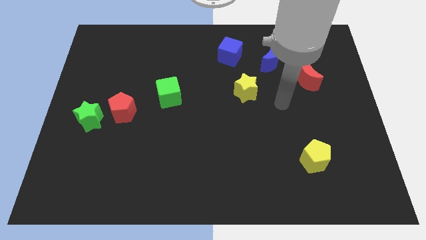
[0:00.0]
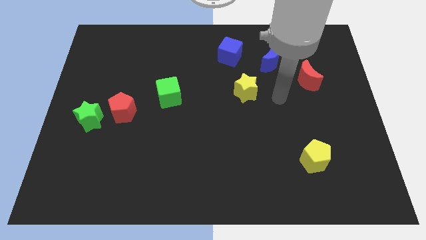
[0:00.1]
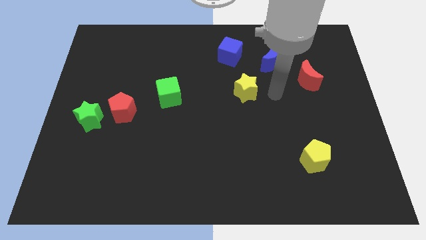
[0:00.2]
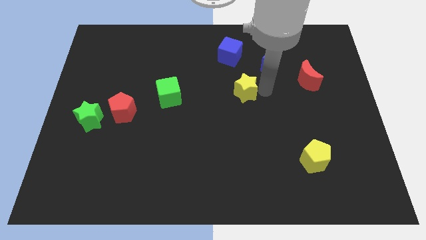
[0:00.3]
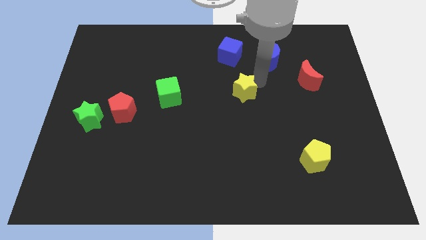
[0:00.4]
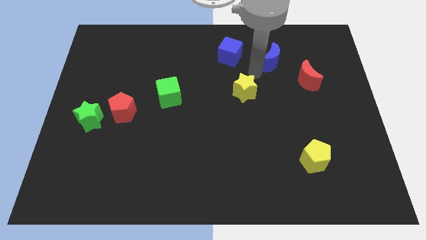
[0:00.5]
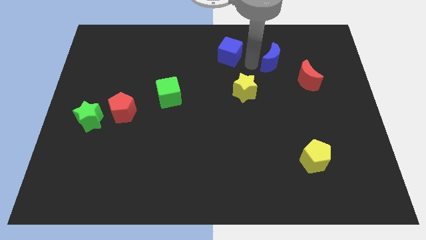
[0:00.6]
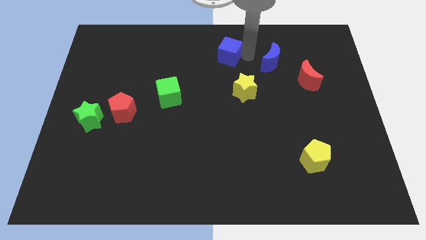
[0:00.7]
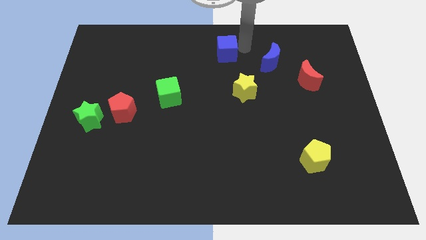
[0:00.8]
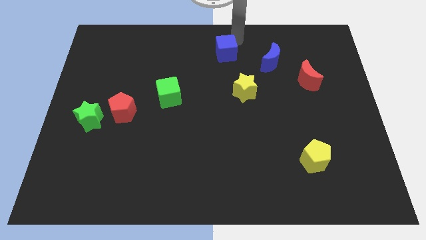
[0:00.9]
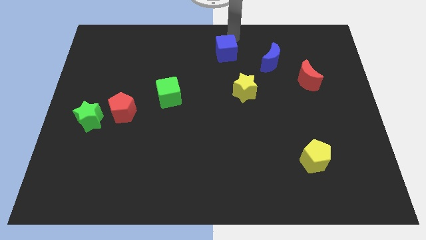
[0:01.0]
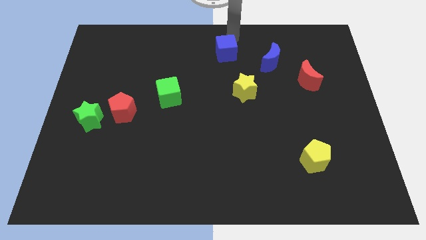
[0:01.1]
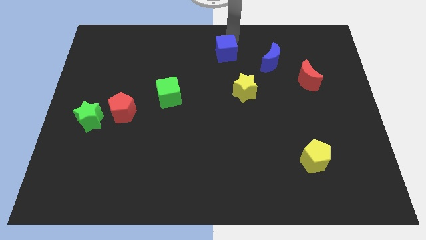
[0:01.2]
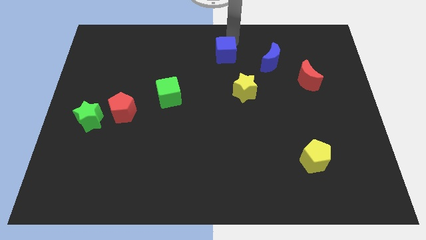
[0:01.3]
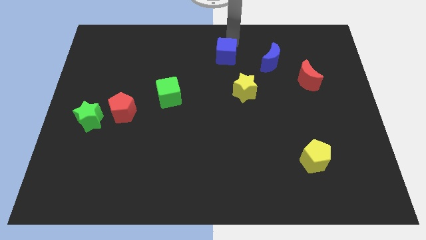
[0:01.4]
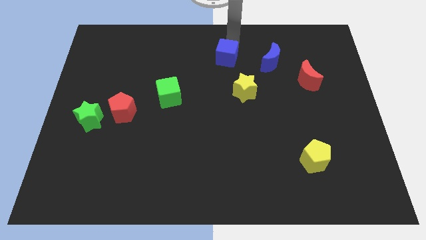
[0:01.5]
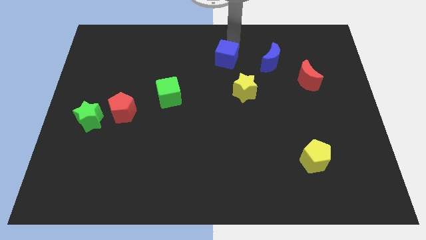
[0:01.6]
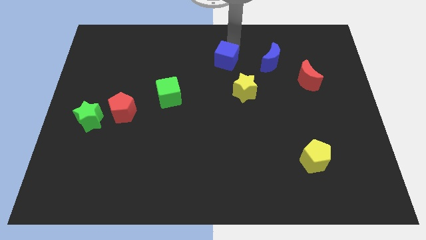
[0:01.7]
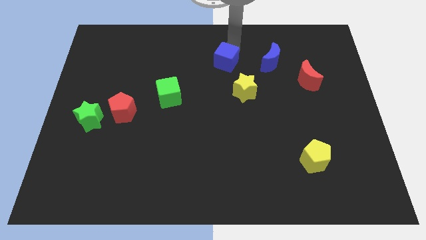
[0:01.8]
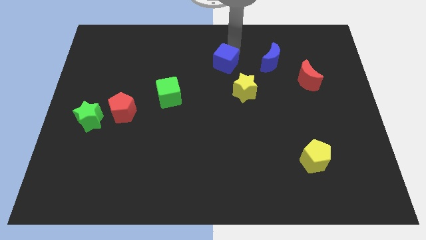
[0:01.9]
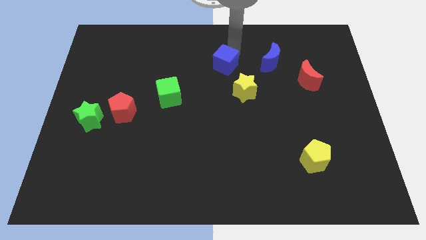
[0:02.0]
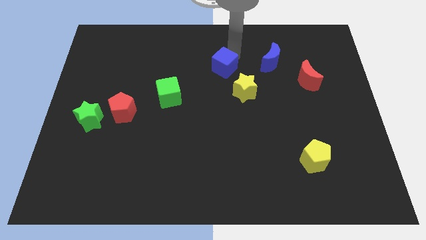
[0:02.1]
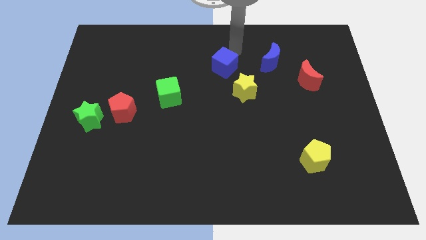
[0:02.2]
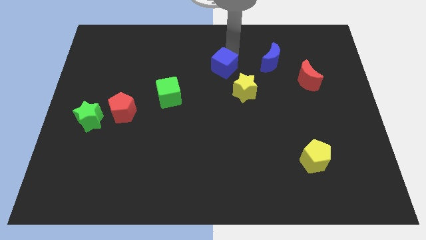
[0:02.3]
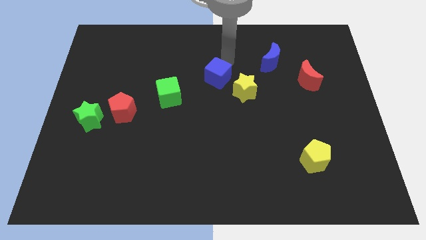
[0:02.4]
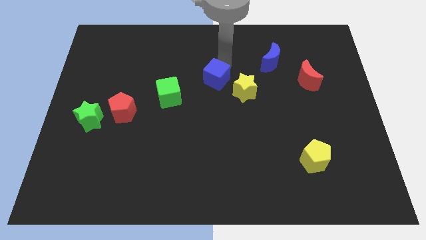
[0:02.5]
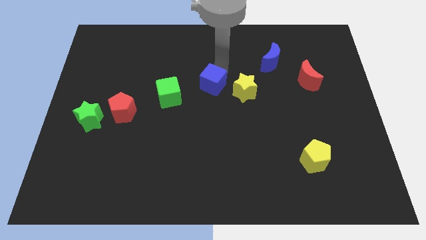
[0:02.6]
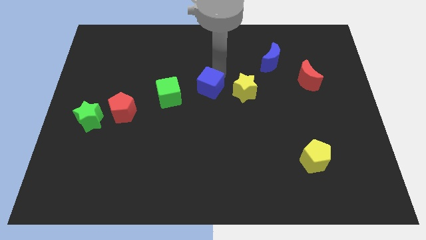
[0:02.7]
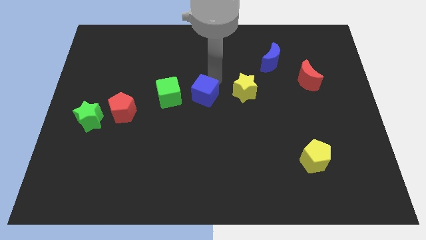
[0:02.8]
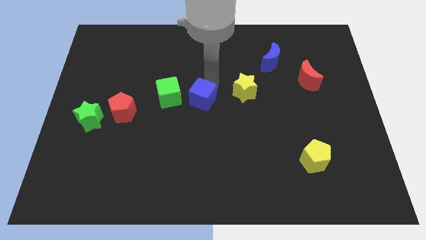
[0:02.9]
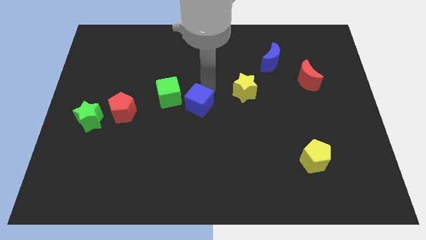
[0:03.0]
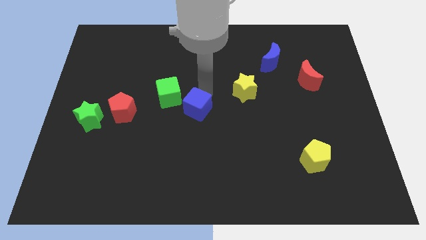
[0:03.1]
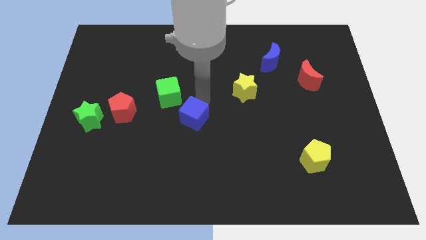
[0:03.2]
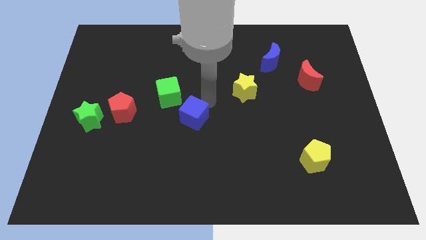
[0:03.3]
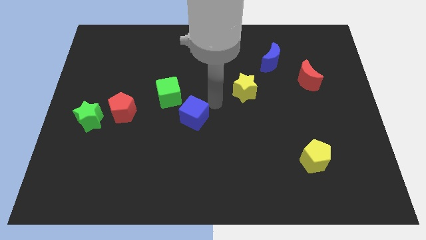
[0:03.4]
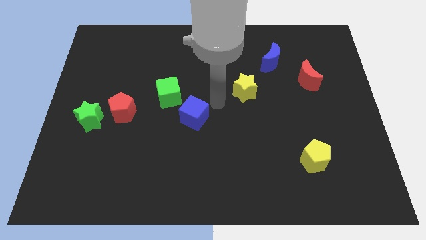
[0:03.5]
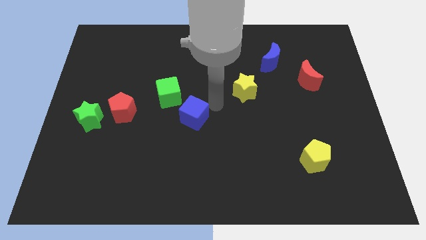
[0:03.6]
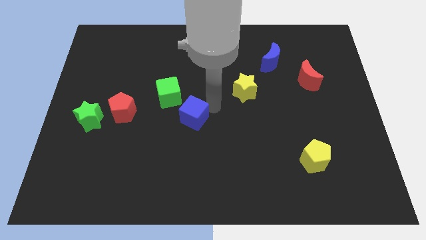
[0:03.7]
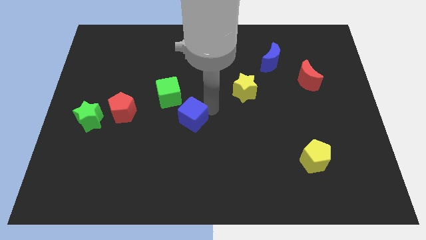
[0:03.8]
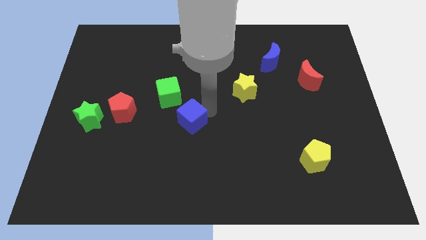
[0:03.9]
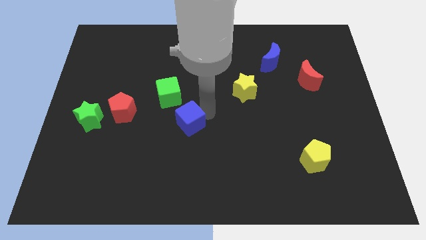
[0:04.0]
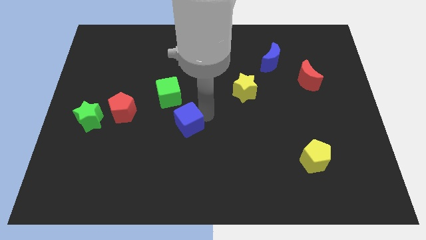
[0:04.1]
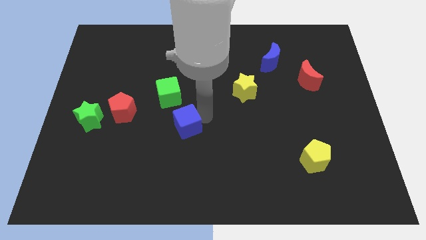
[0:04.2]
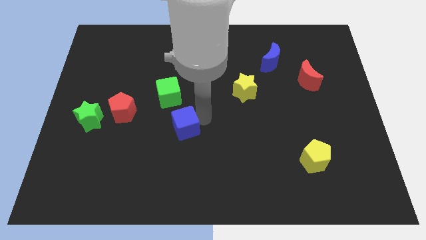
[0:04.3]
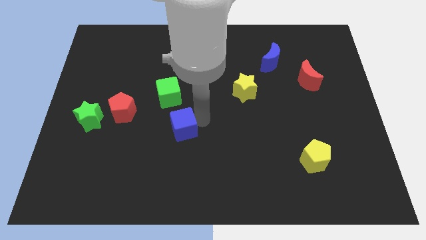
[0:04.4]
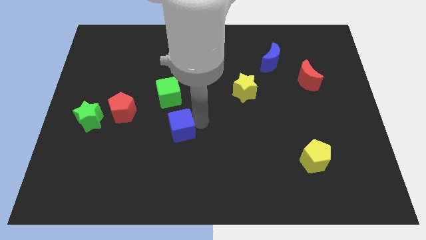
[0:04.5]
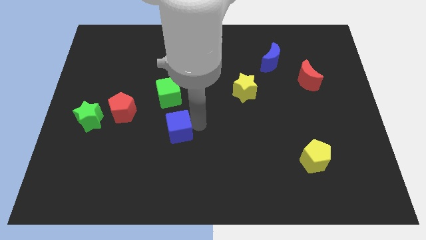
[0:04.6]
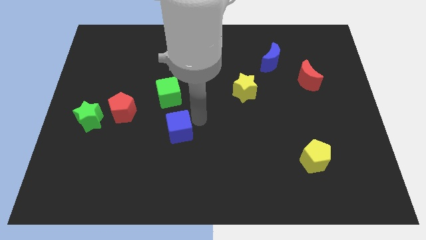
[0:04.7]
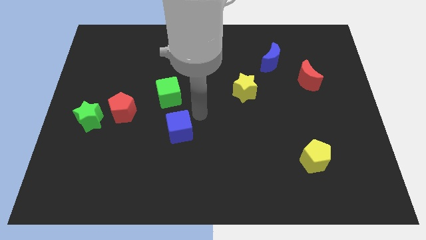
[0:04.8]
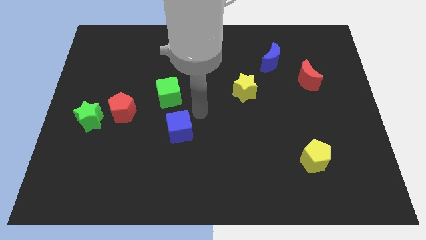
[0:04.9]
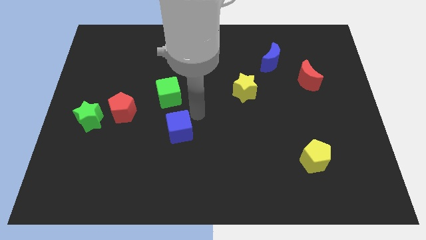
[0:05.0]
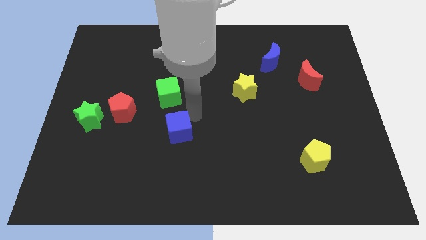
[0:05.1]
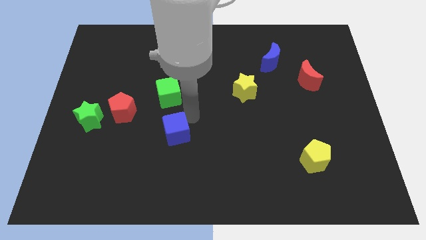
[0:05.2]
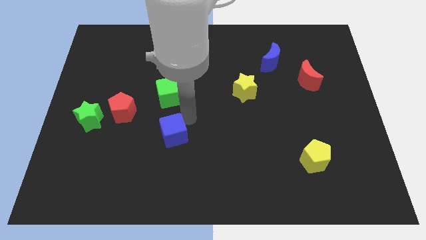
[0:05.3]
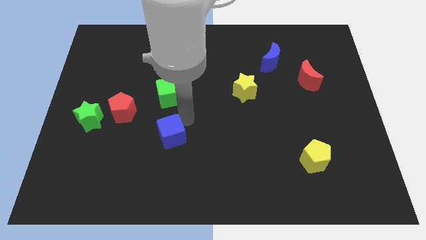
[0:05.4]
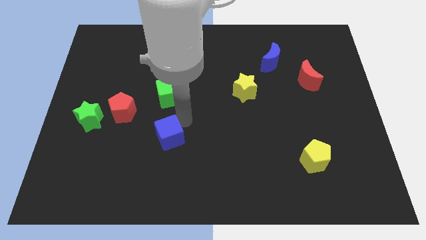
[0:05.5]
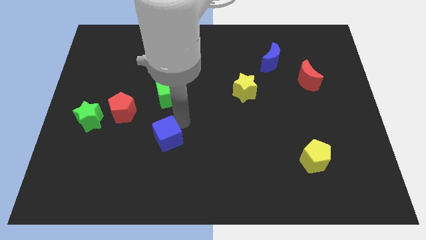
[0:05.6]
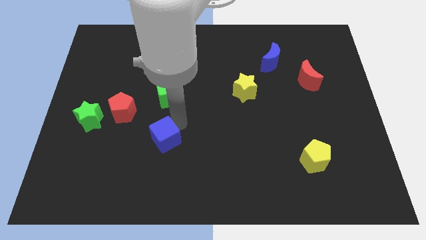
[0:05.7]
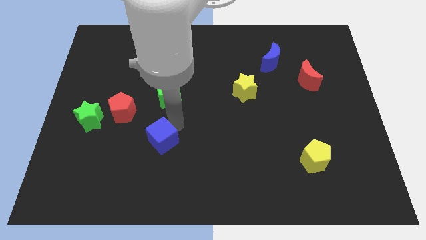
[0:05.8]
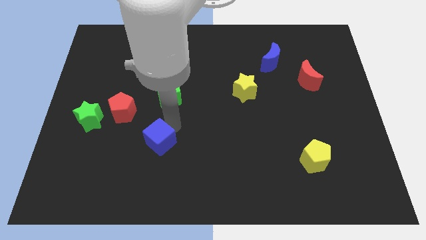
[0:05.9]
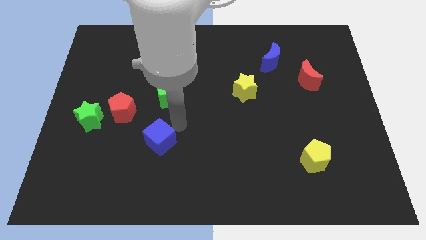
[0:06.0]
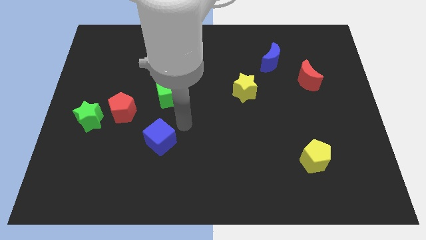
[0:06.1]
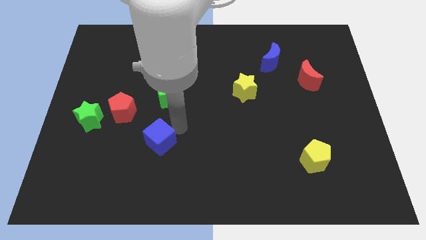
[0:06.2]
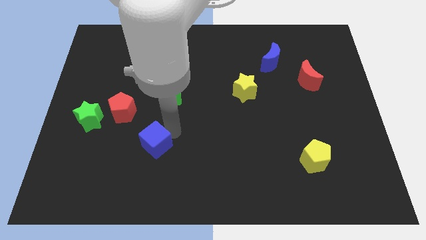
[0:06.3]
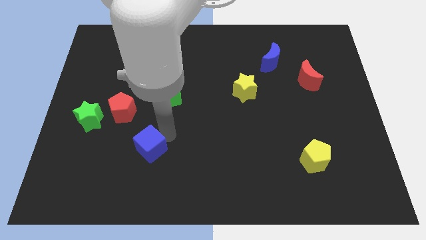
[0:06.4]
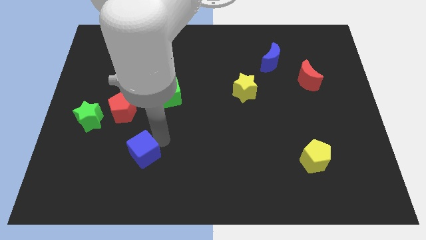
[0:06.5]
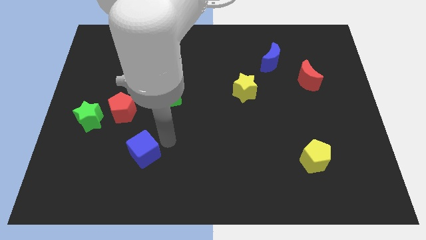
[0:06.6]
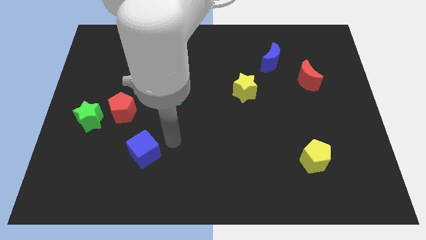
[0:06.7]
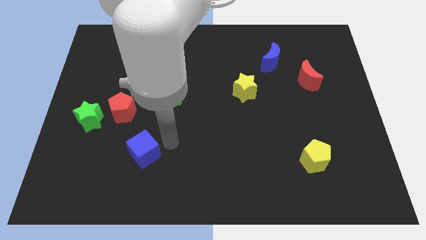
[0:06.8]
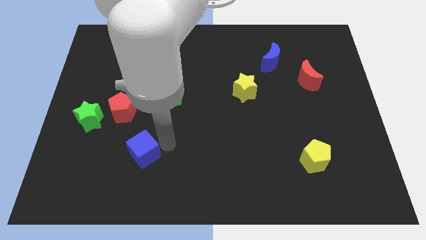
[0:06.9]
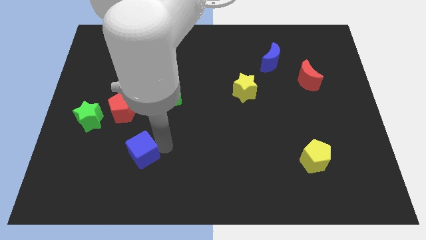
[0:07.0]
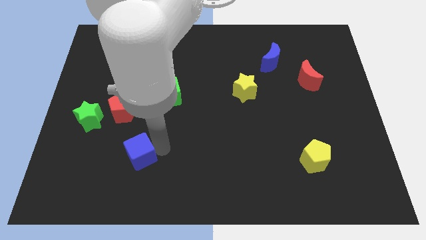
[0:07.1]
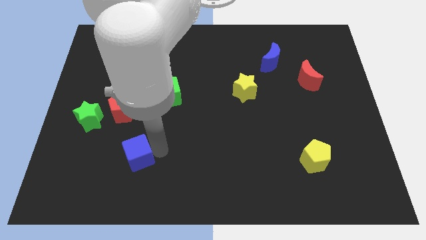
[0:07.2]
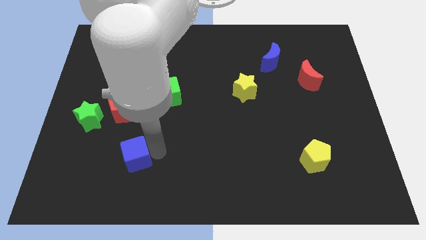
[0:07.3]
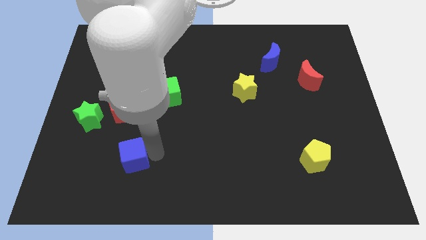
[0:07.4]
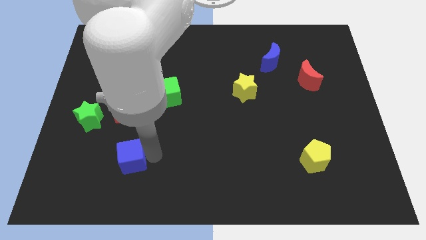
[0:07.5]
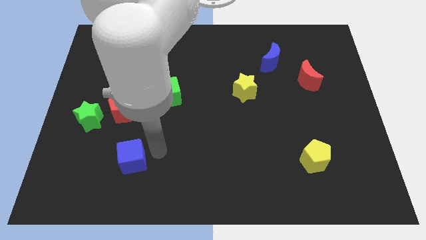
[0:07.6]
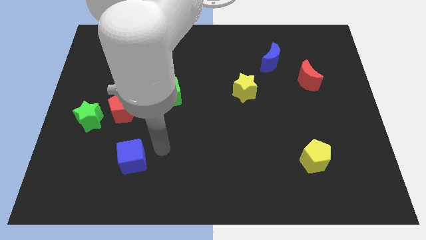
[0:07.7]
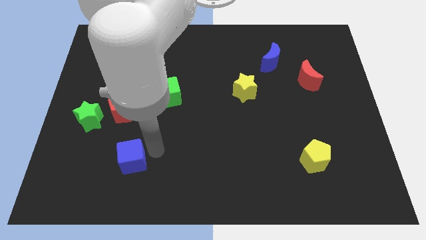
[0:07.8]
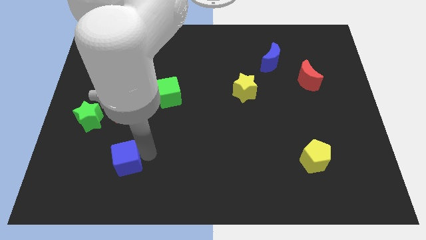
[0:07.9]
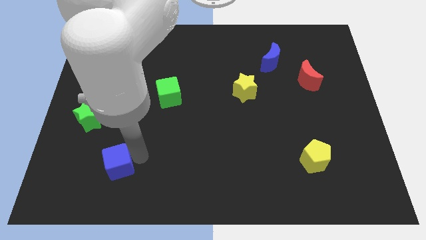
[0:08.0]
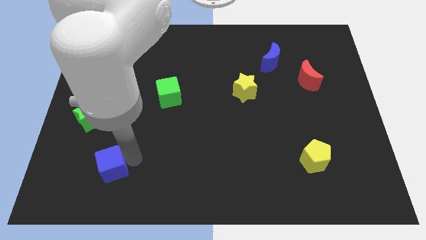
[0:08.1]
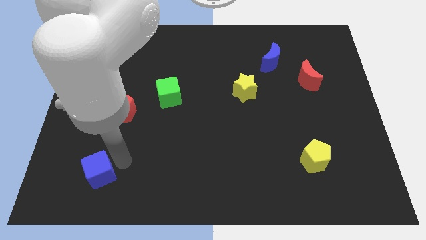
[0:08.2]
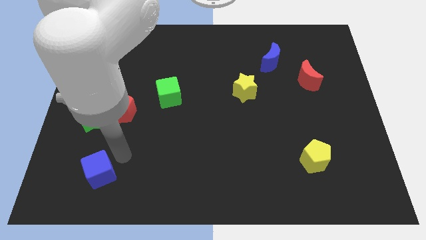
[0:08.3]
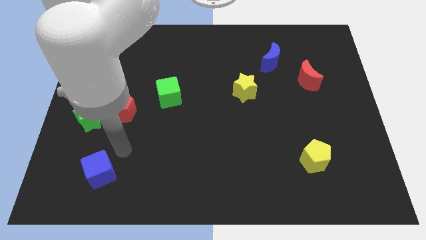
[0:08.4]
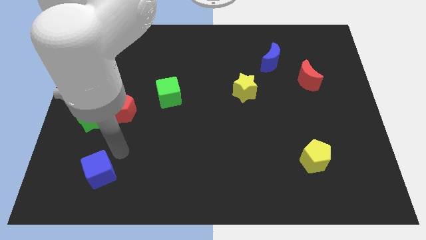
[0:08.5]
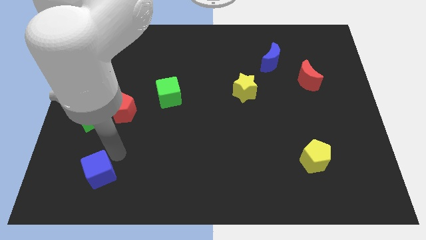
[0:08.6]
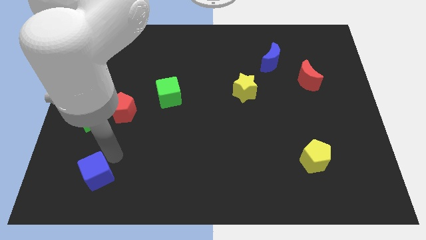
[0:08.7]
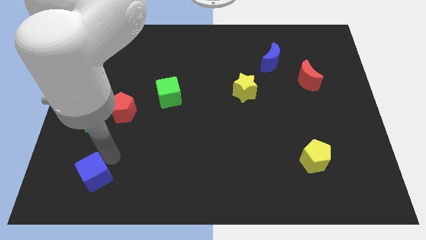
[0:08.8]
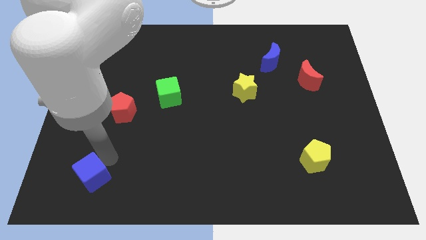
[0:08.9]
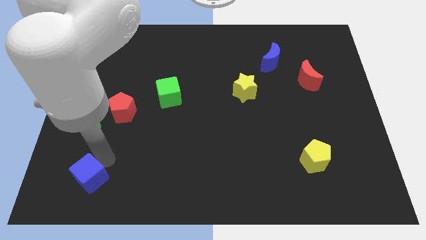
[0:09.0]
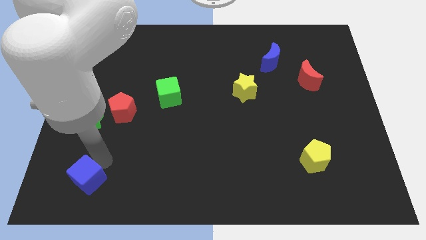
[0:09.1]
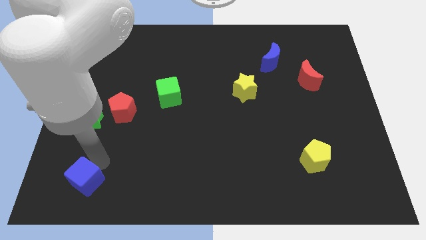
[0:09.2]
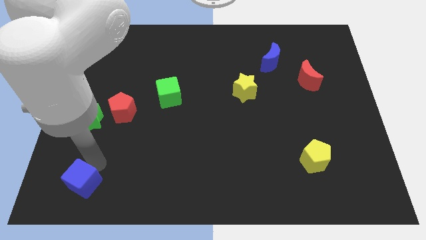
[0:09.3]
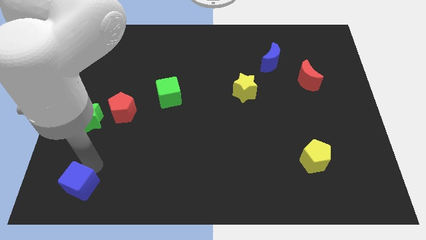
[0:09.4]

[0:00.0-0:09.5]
slide the blue cube to the bottom left
